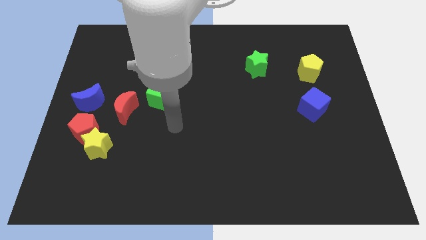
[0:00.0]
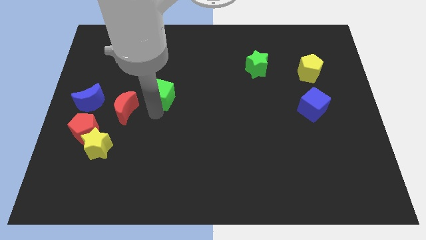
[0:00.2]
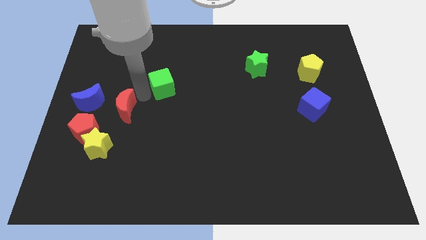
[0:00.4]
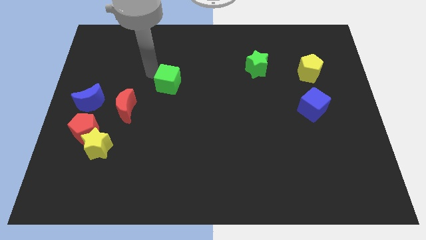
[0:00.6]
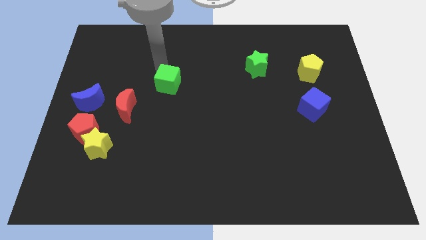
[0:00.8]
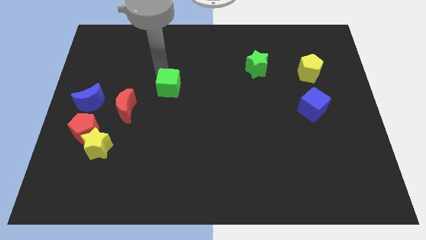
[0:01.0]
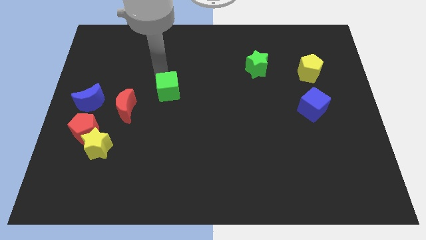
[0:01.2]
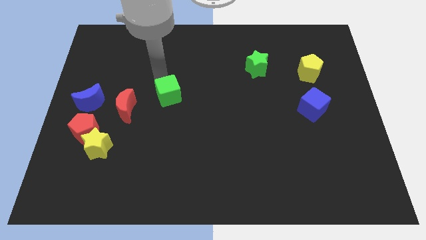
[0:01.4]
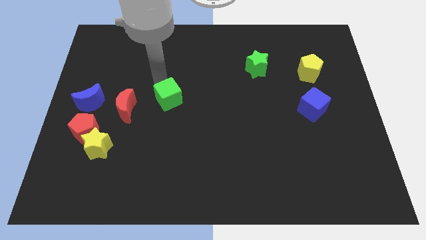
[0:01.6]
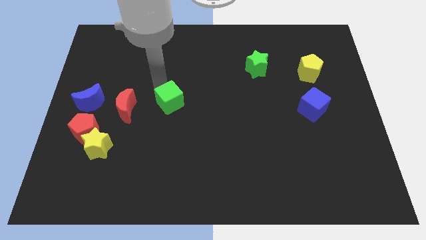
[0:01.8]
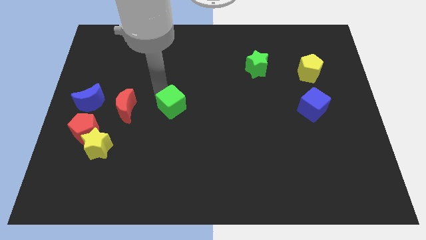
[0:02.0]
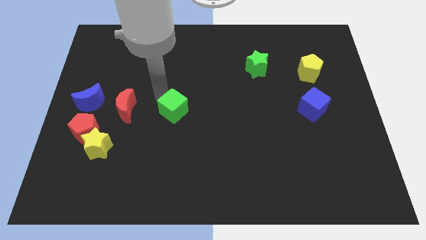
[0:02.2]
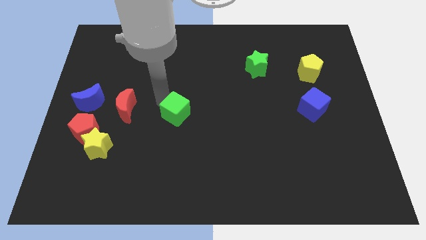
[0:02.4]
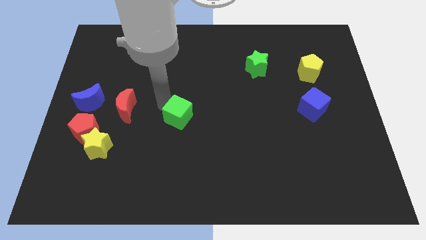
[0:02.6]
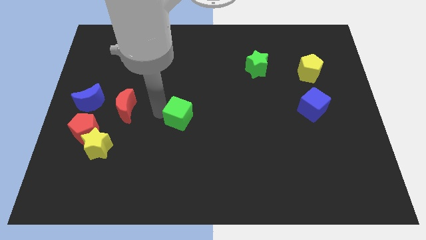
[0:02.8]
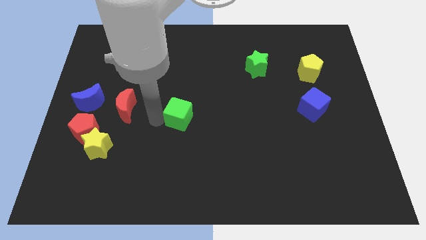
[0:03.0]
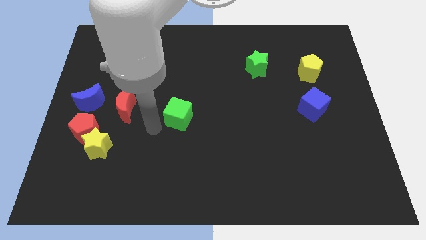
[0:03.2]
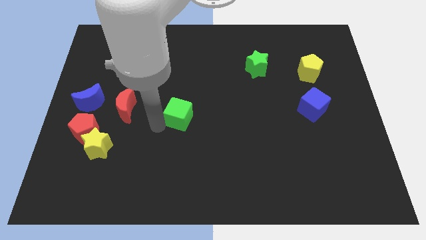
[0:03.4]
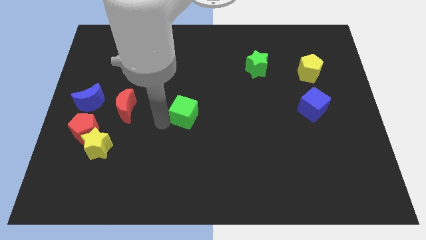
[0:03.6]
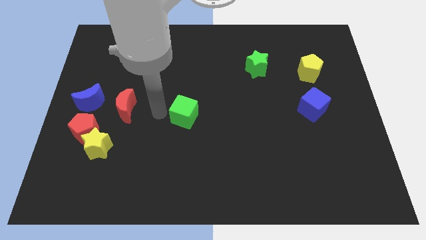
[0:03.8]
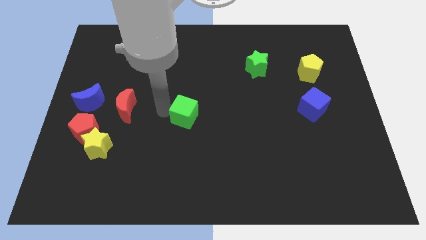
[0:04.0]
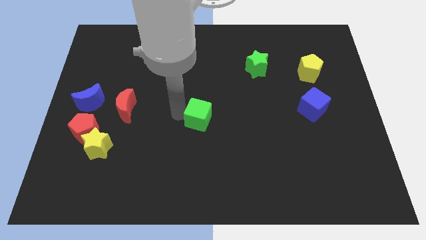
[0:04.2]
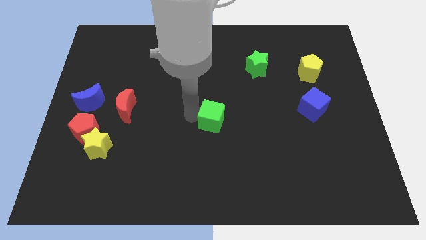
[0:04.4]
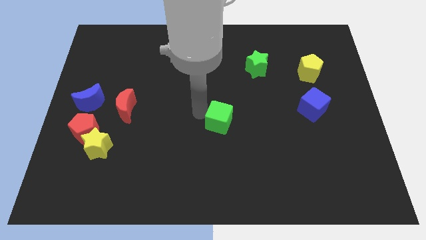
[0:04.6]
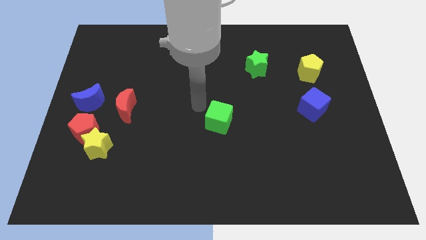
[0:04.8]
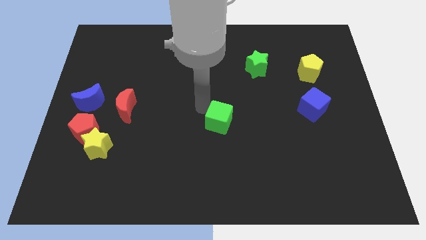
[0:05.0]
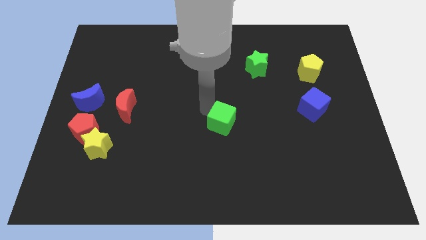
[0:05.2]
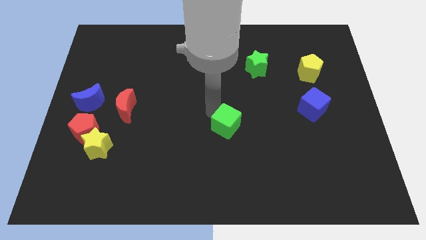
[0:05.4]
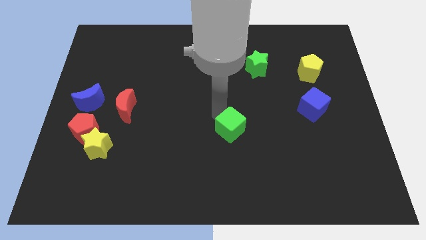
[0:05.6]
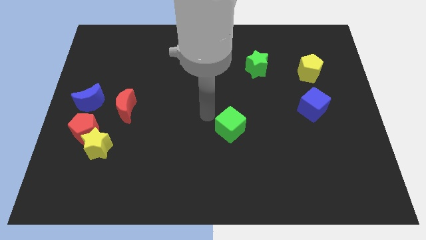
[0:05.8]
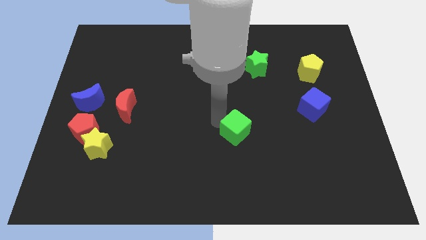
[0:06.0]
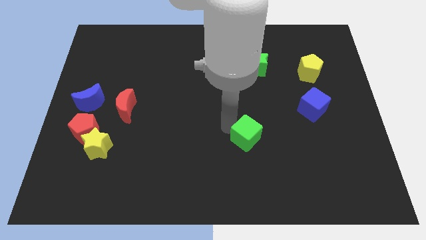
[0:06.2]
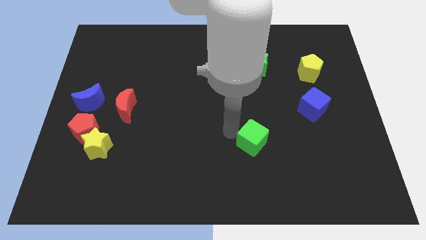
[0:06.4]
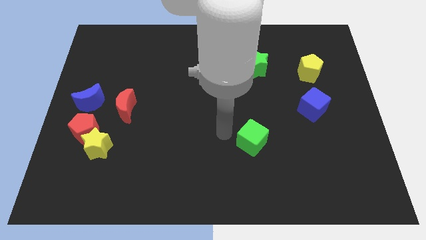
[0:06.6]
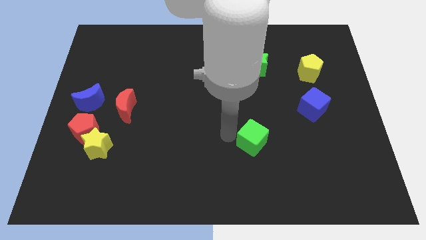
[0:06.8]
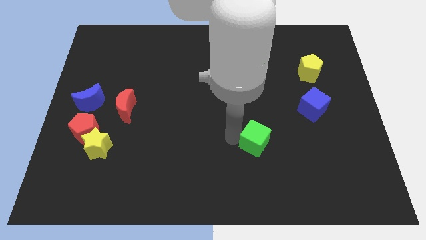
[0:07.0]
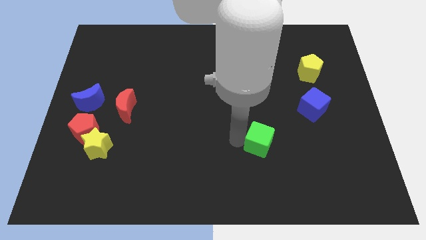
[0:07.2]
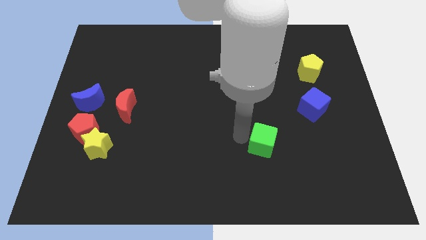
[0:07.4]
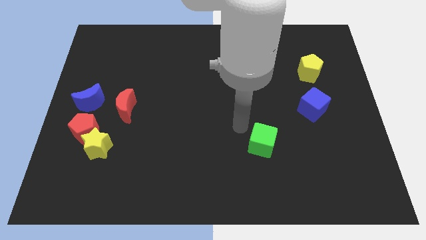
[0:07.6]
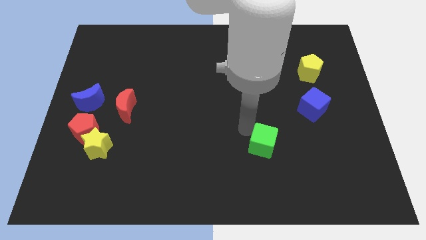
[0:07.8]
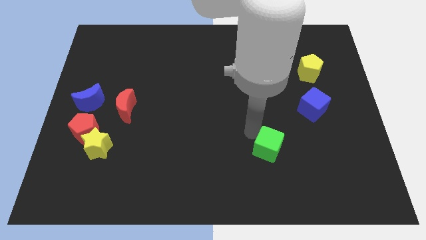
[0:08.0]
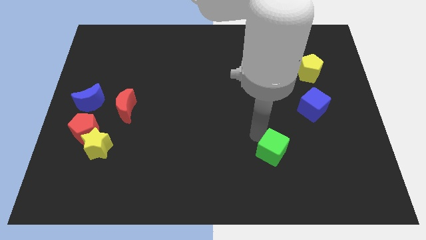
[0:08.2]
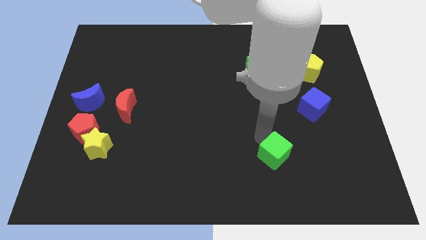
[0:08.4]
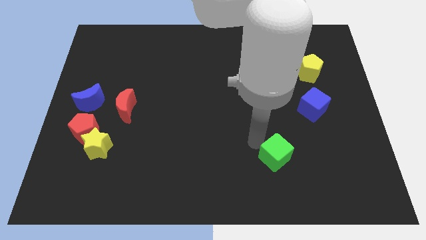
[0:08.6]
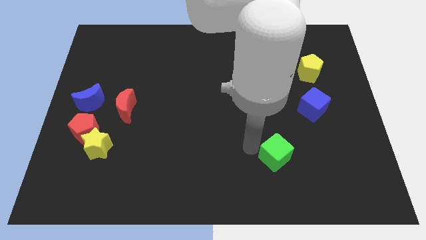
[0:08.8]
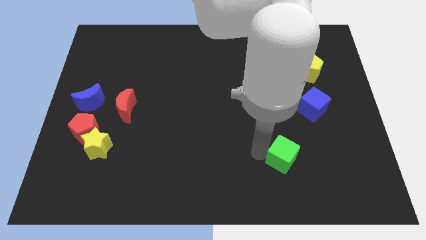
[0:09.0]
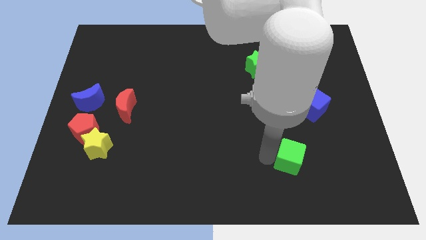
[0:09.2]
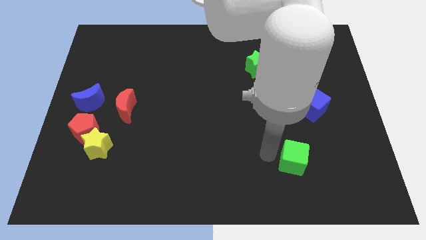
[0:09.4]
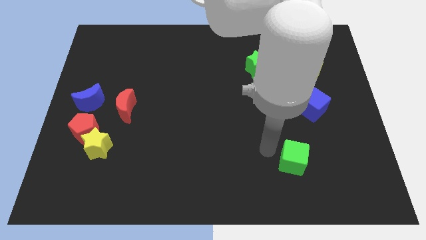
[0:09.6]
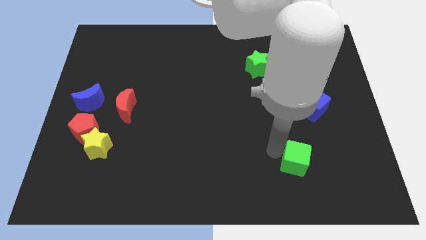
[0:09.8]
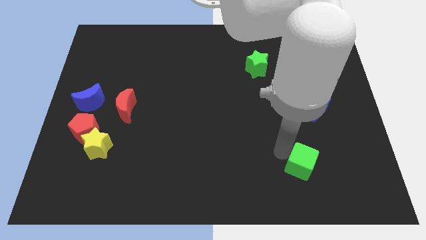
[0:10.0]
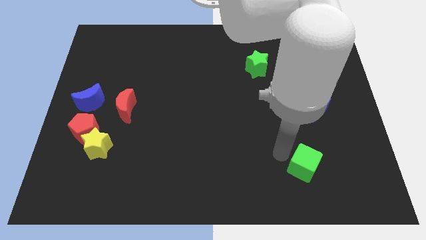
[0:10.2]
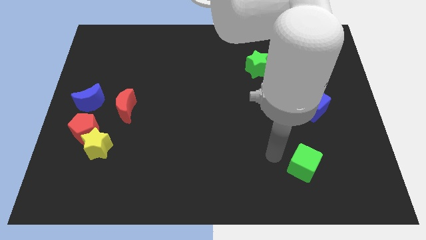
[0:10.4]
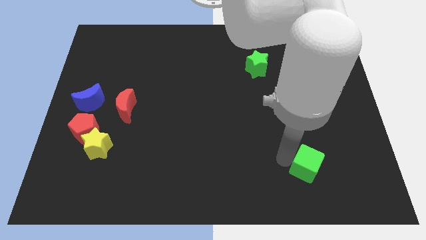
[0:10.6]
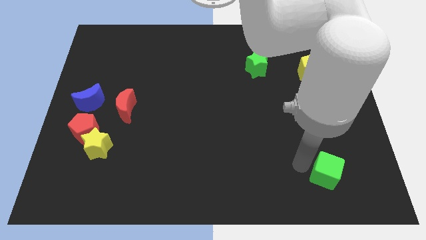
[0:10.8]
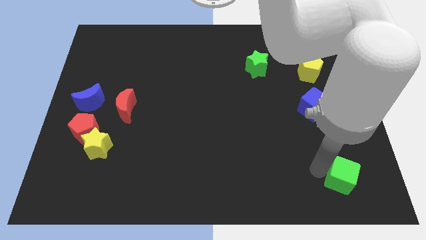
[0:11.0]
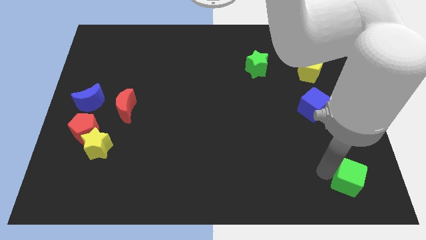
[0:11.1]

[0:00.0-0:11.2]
push the green cube to the bottom right

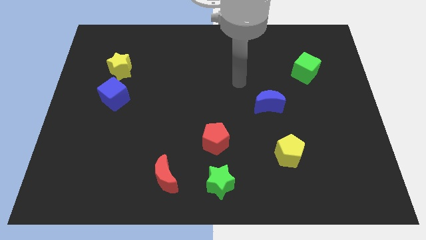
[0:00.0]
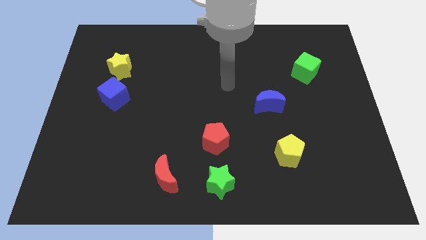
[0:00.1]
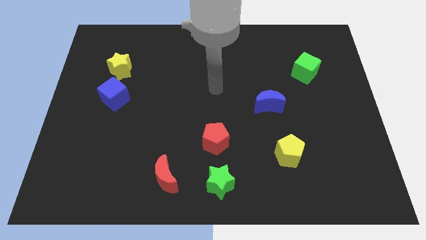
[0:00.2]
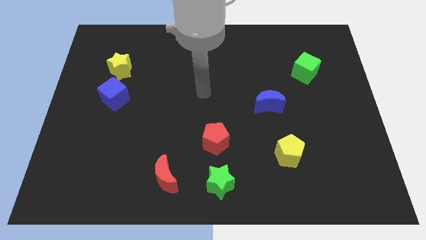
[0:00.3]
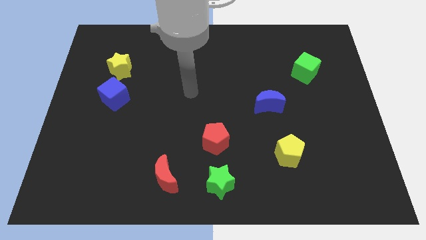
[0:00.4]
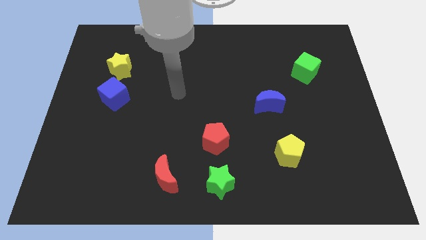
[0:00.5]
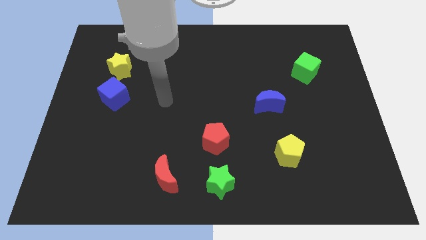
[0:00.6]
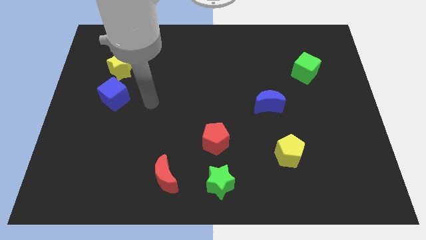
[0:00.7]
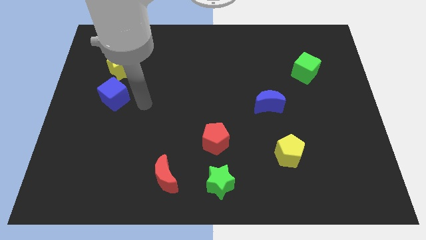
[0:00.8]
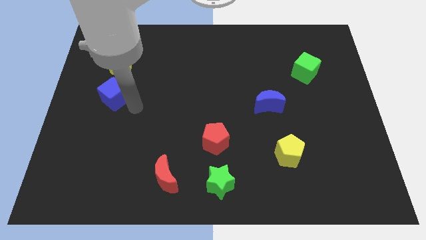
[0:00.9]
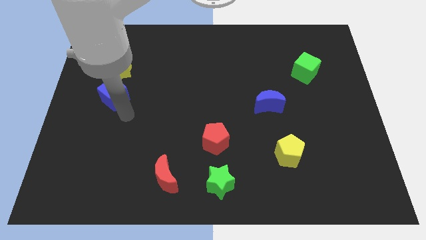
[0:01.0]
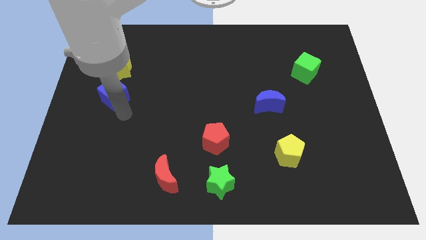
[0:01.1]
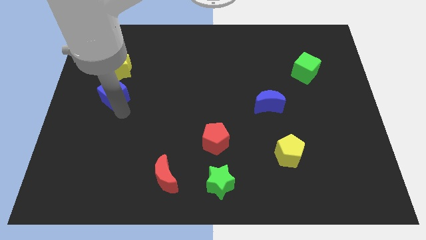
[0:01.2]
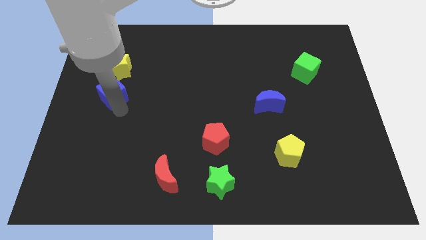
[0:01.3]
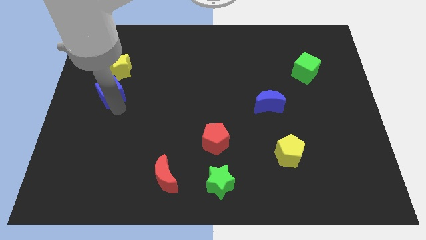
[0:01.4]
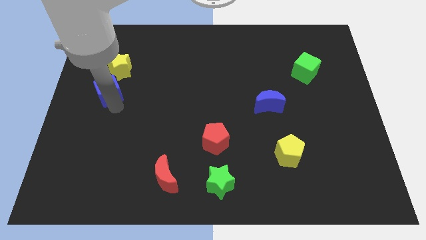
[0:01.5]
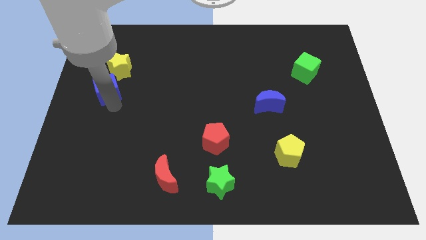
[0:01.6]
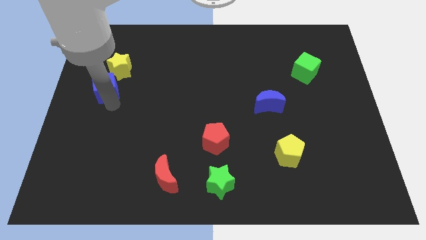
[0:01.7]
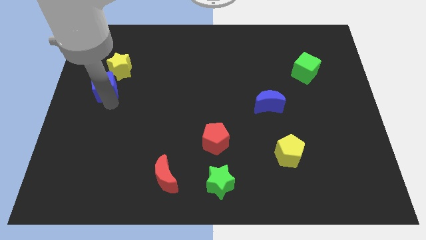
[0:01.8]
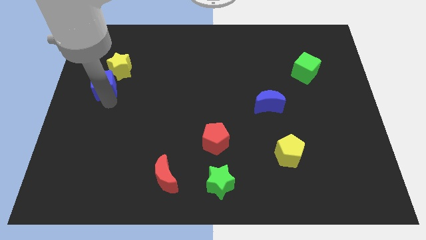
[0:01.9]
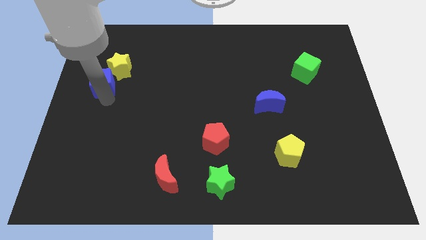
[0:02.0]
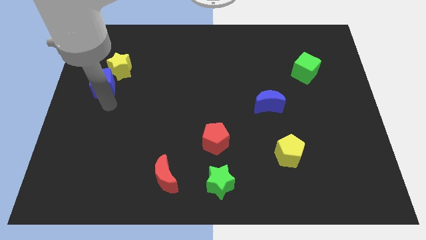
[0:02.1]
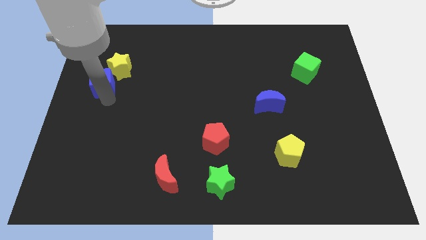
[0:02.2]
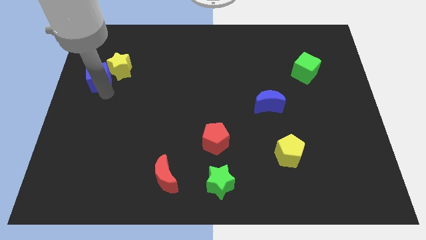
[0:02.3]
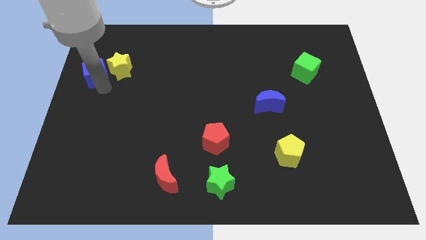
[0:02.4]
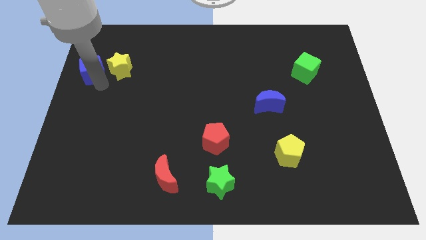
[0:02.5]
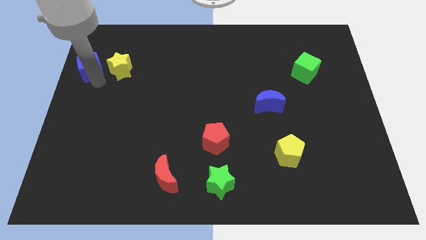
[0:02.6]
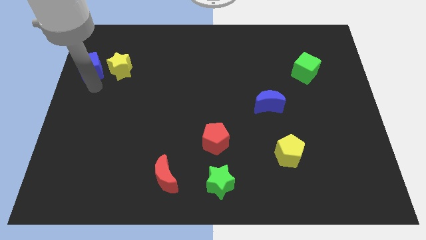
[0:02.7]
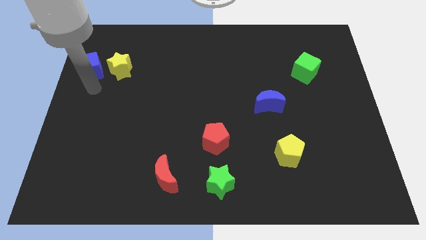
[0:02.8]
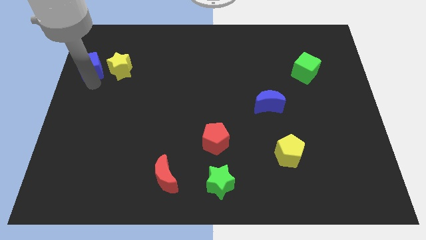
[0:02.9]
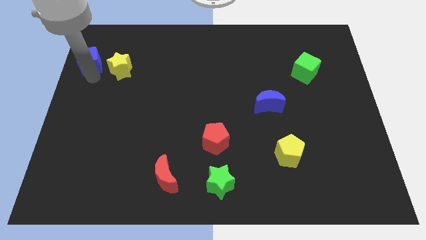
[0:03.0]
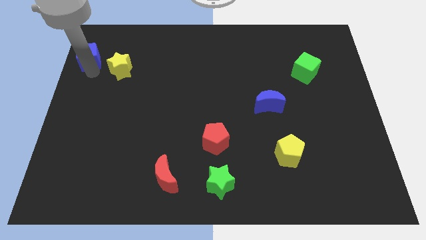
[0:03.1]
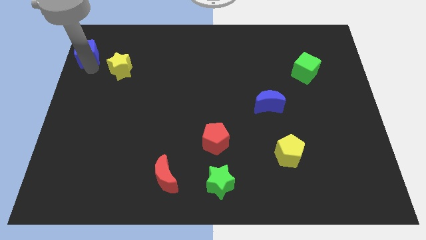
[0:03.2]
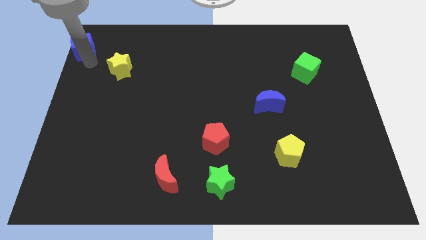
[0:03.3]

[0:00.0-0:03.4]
put the blue cube to the upper left corner
